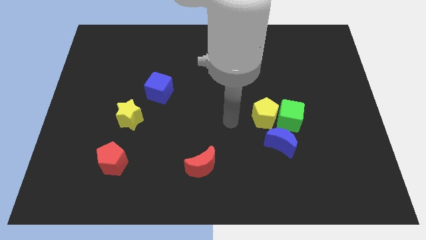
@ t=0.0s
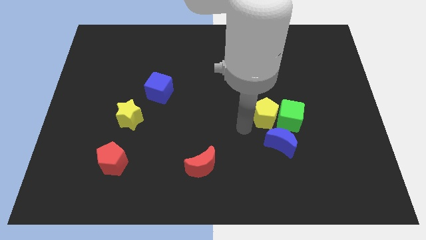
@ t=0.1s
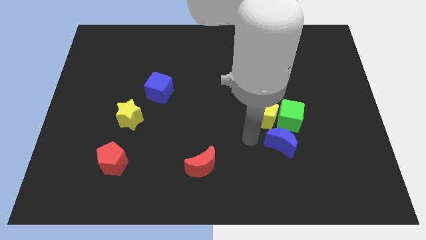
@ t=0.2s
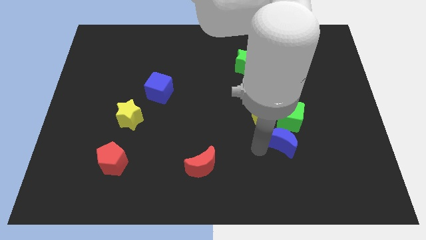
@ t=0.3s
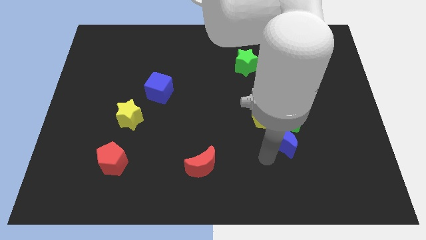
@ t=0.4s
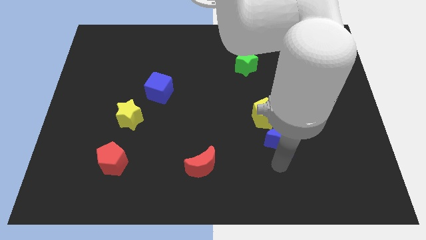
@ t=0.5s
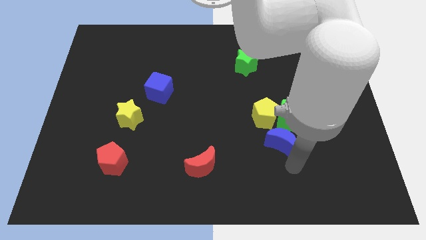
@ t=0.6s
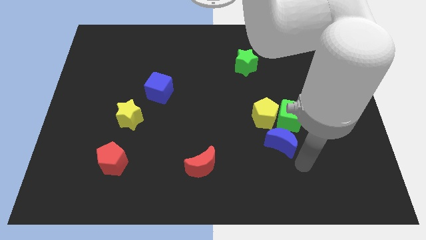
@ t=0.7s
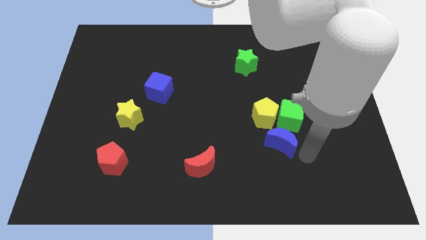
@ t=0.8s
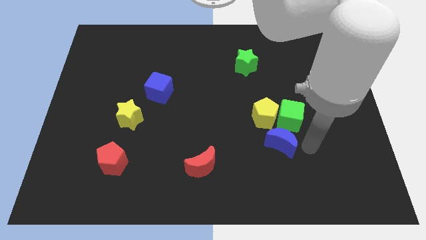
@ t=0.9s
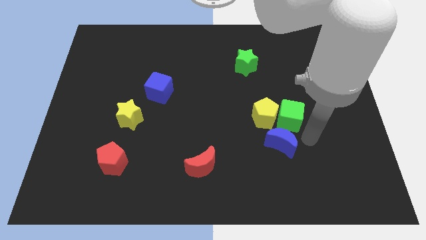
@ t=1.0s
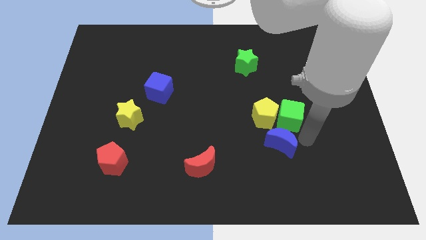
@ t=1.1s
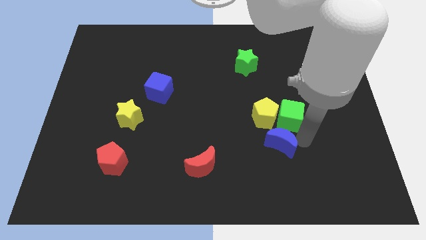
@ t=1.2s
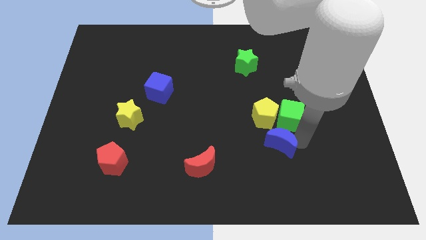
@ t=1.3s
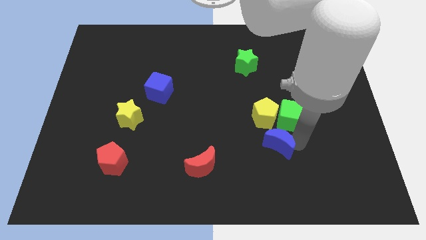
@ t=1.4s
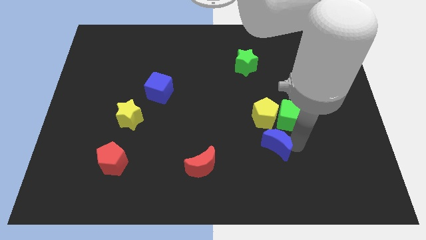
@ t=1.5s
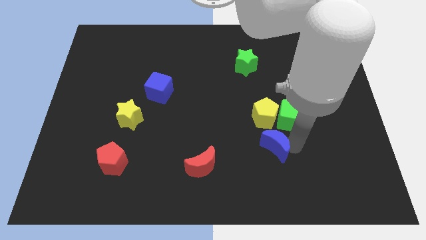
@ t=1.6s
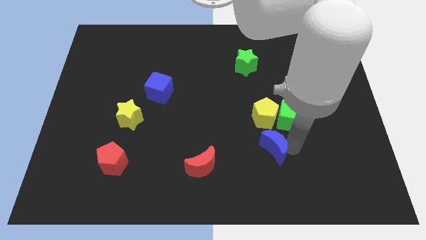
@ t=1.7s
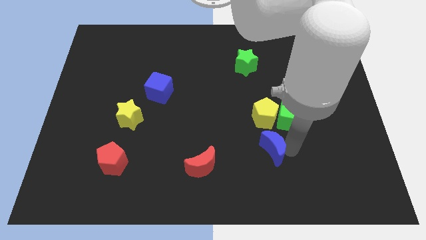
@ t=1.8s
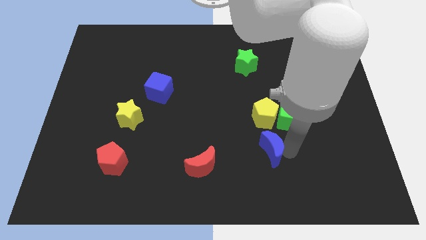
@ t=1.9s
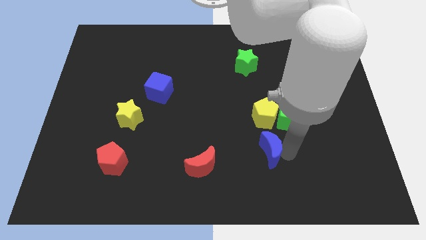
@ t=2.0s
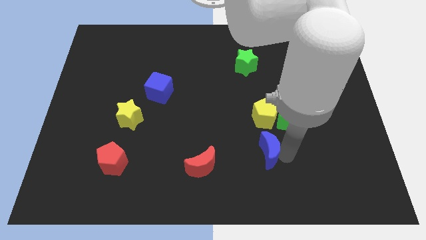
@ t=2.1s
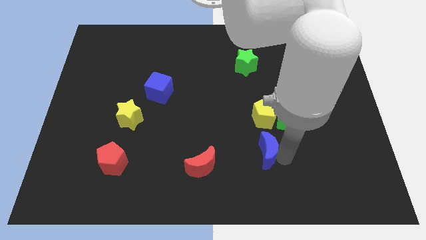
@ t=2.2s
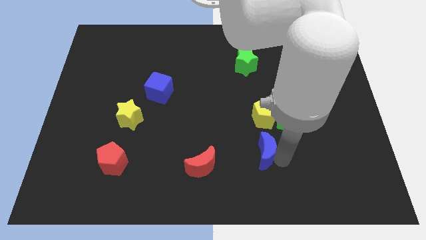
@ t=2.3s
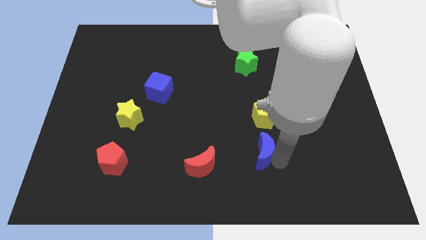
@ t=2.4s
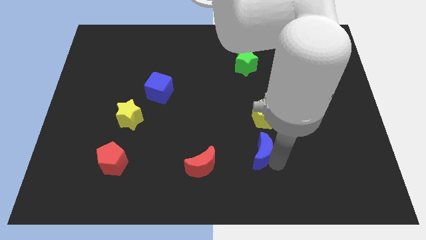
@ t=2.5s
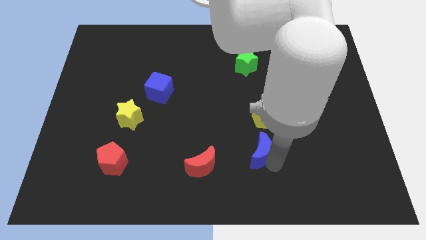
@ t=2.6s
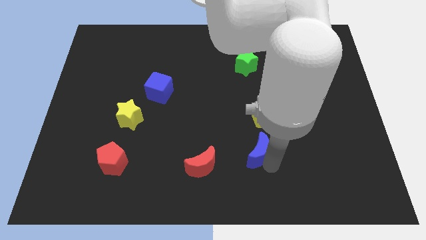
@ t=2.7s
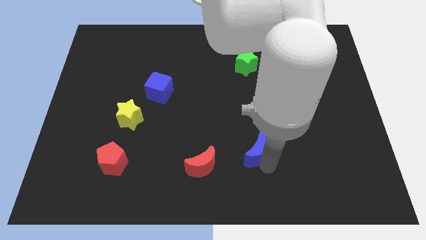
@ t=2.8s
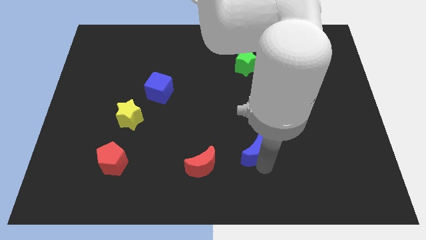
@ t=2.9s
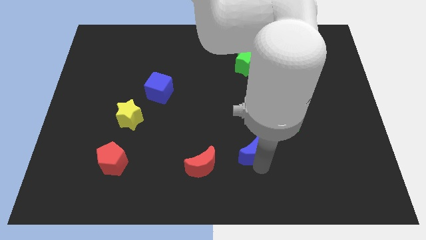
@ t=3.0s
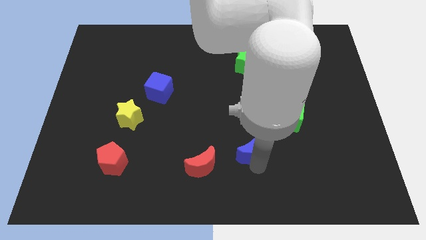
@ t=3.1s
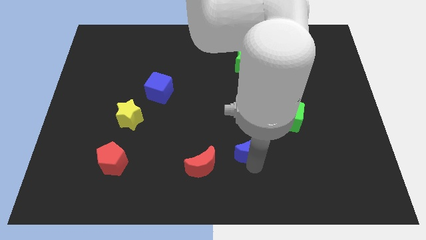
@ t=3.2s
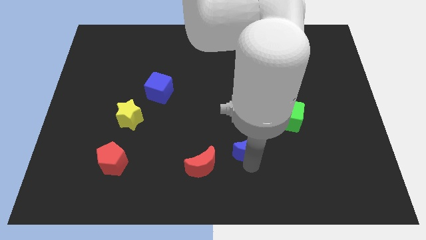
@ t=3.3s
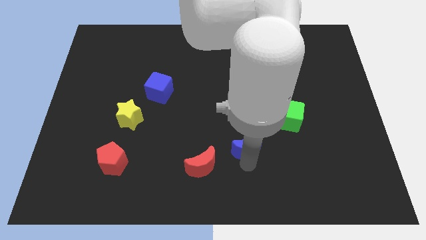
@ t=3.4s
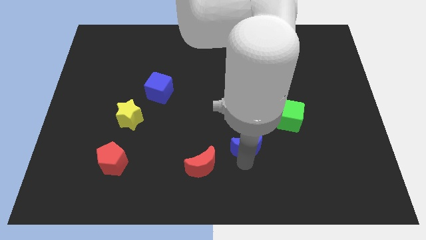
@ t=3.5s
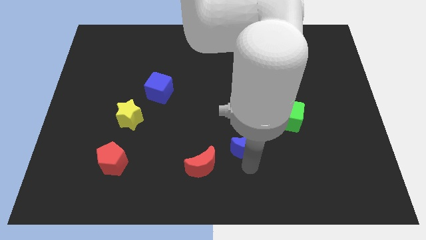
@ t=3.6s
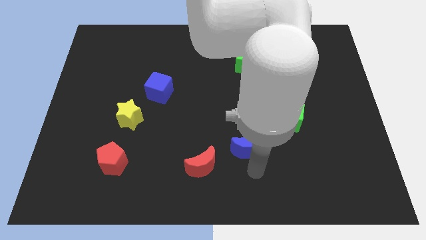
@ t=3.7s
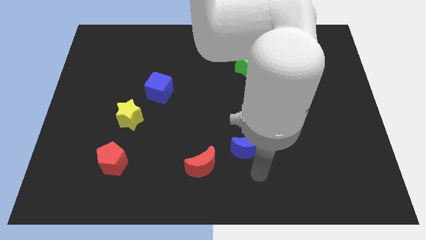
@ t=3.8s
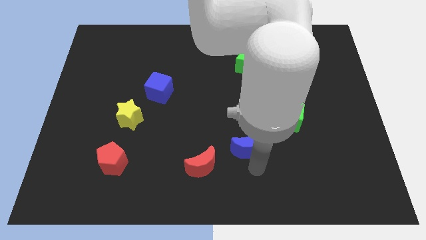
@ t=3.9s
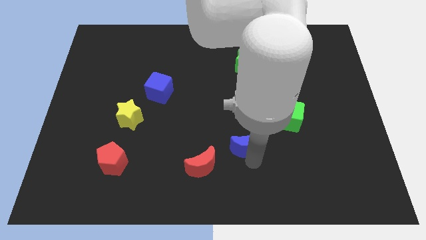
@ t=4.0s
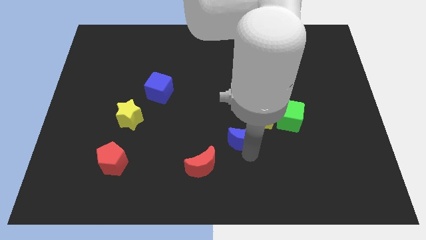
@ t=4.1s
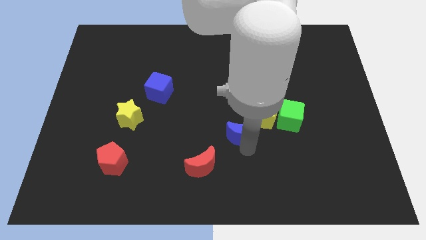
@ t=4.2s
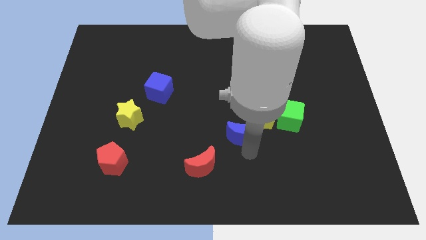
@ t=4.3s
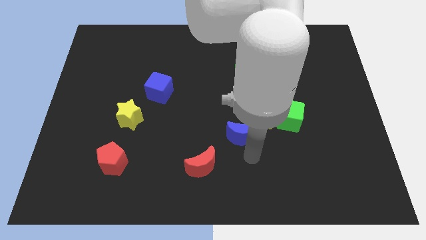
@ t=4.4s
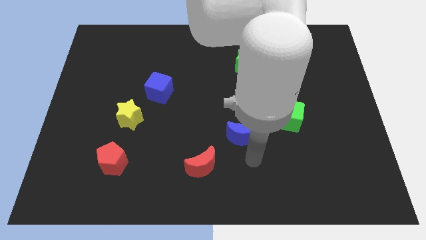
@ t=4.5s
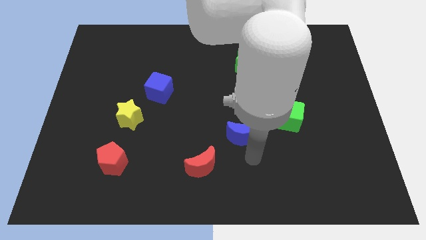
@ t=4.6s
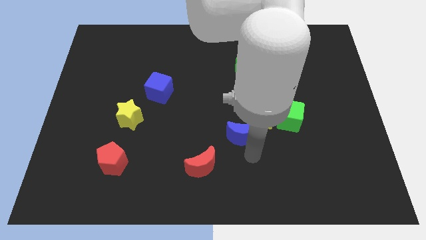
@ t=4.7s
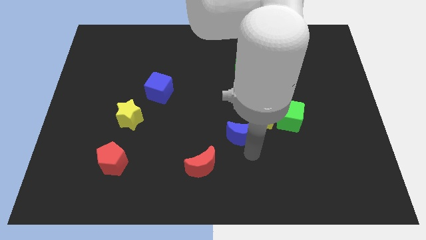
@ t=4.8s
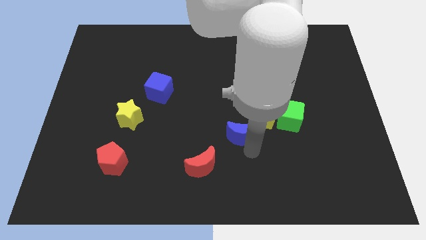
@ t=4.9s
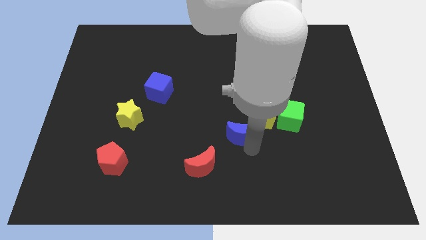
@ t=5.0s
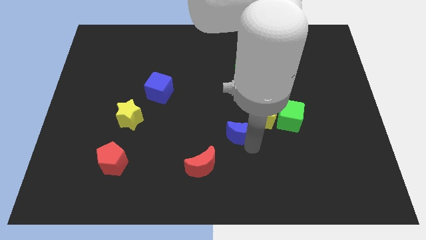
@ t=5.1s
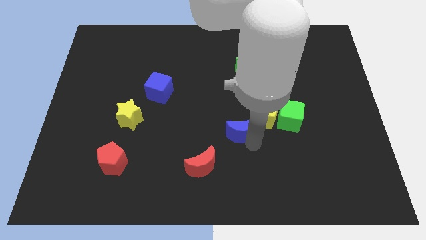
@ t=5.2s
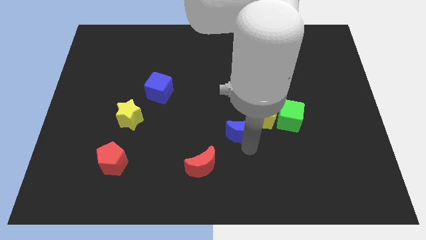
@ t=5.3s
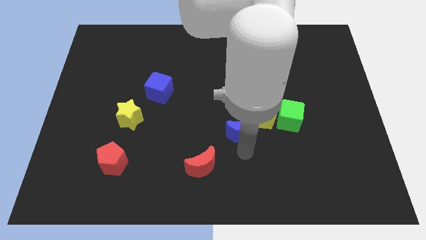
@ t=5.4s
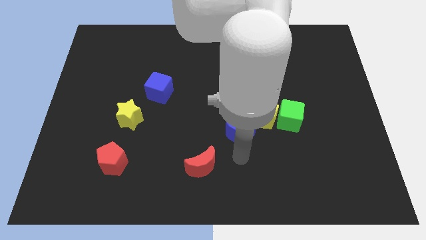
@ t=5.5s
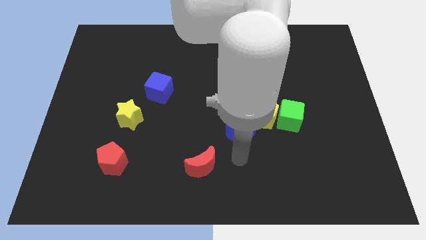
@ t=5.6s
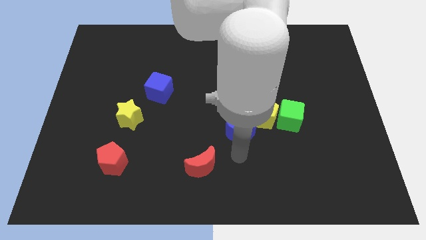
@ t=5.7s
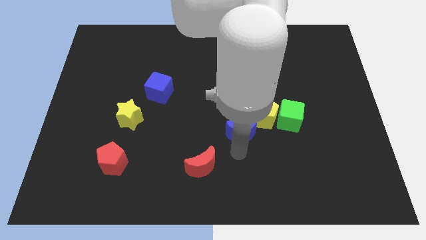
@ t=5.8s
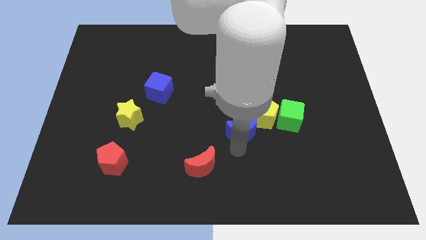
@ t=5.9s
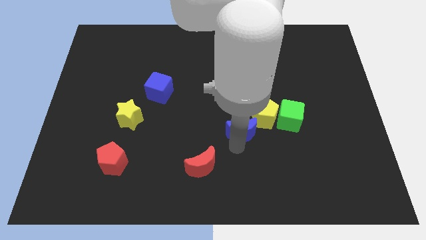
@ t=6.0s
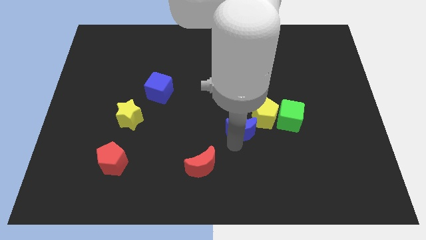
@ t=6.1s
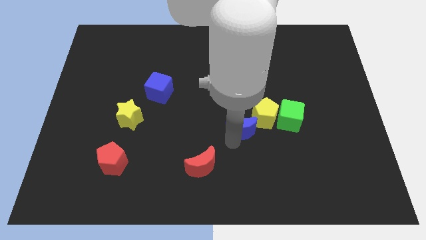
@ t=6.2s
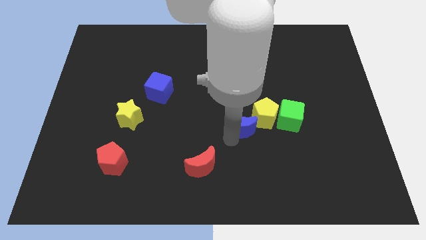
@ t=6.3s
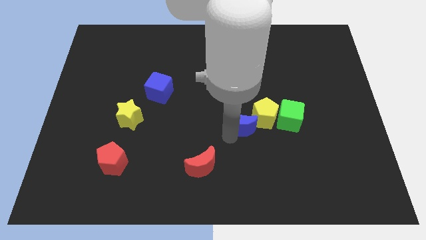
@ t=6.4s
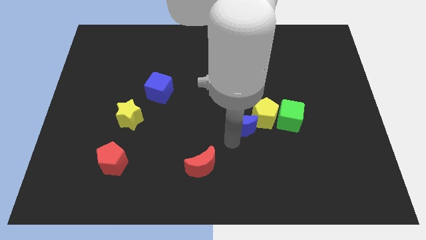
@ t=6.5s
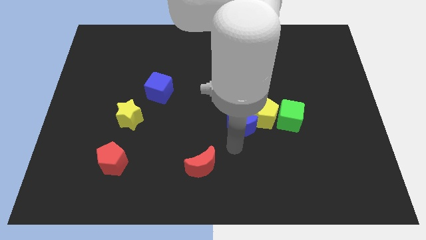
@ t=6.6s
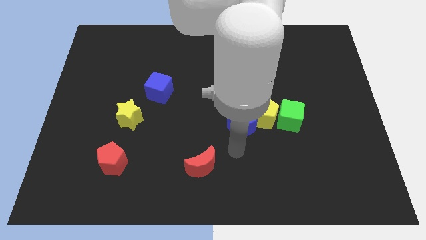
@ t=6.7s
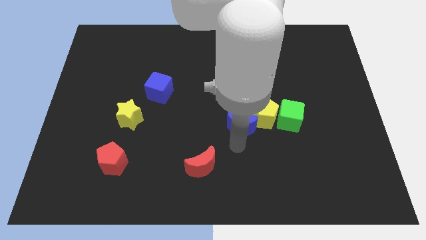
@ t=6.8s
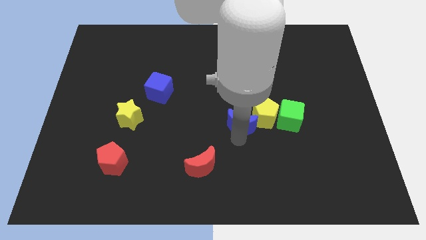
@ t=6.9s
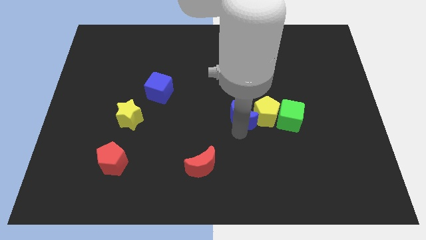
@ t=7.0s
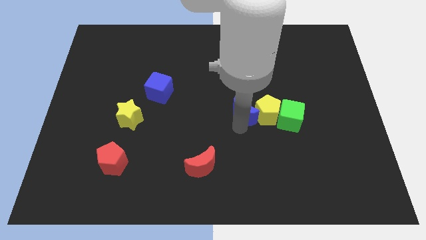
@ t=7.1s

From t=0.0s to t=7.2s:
push the blue moon to the bottom side of the green star
